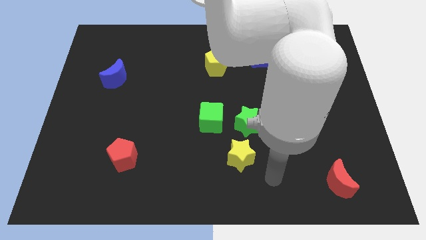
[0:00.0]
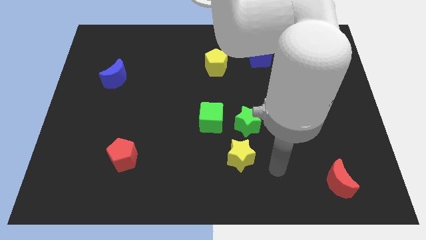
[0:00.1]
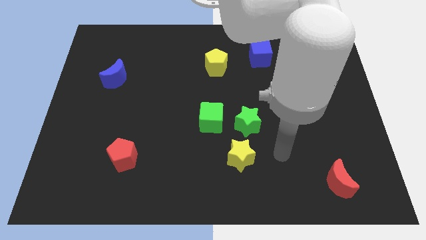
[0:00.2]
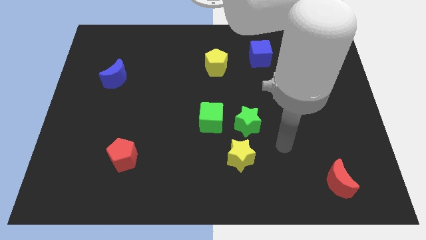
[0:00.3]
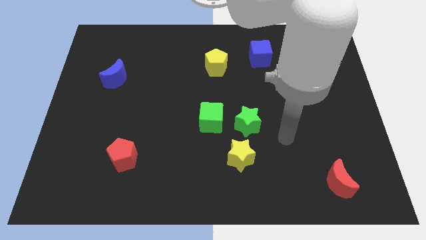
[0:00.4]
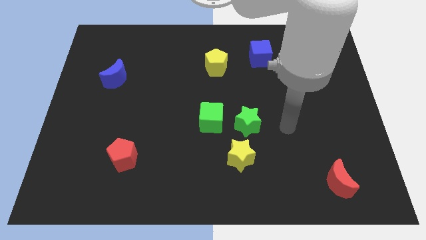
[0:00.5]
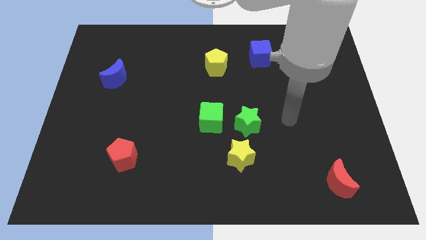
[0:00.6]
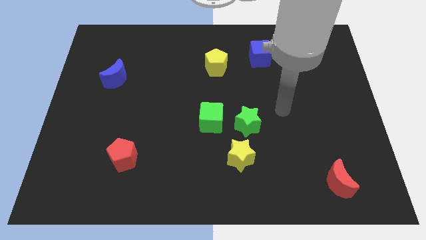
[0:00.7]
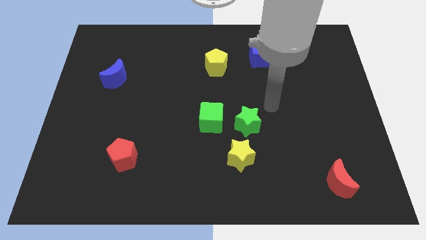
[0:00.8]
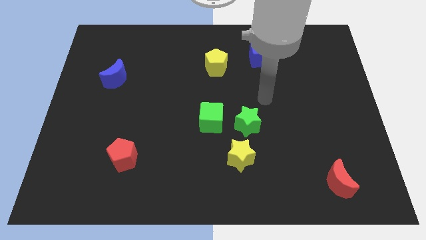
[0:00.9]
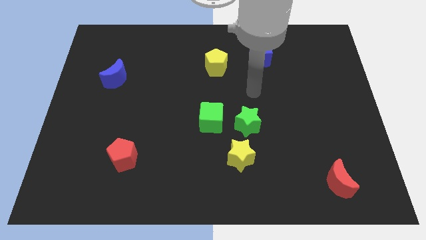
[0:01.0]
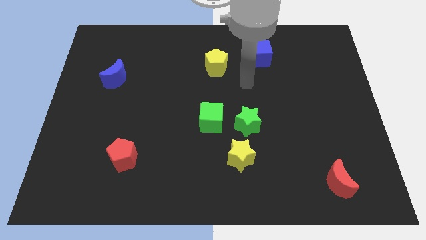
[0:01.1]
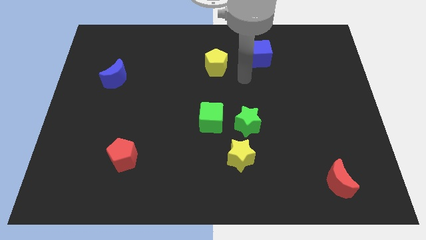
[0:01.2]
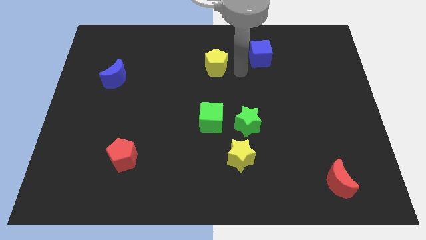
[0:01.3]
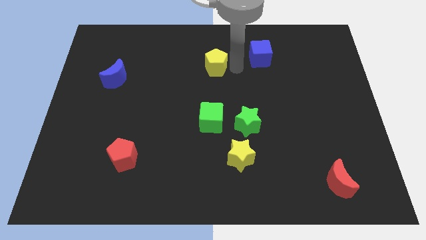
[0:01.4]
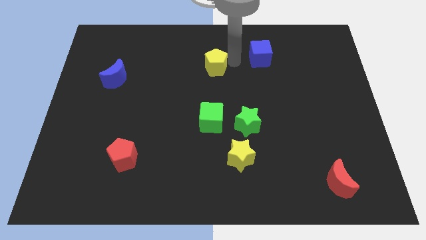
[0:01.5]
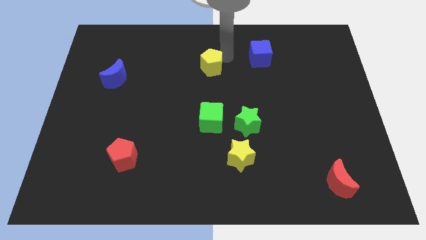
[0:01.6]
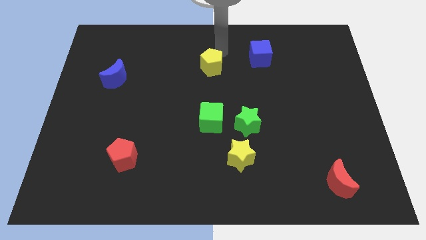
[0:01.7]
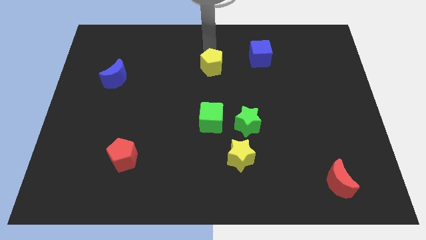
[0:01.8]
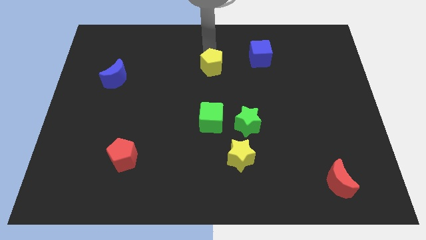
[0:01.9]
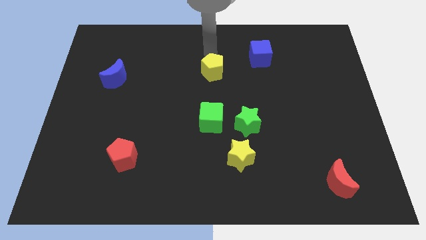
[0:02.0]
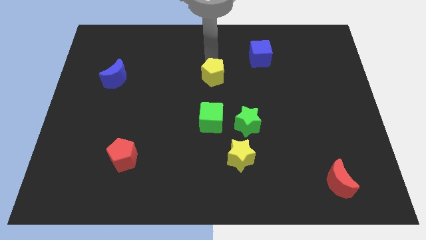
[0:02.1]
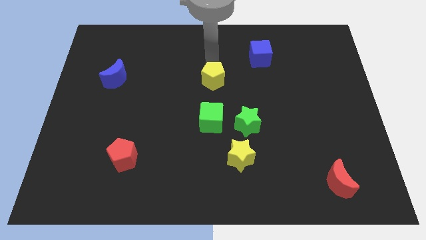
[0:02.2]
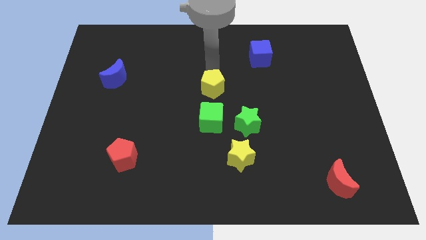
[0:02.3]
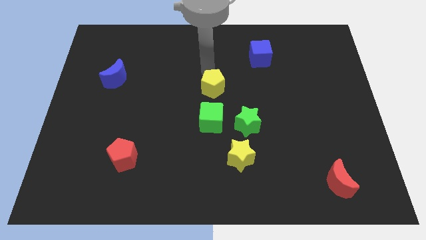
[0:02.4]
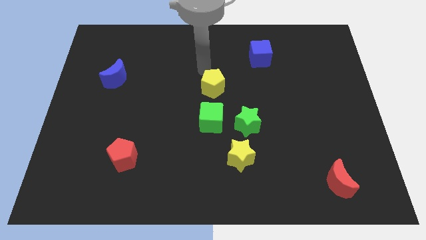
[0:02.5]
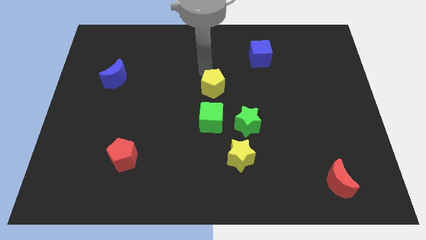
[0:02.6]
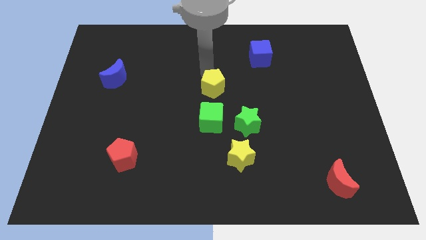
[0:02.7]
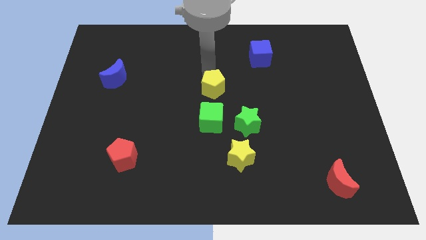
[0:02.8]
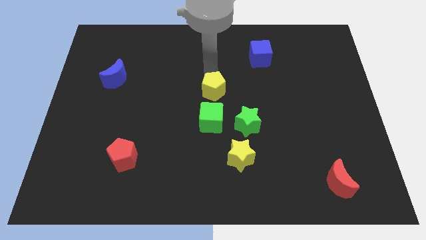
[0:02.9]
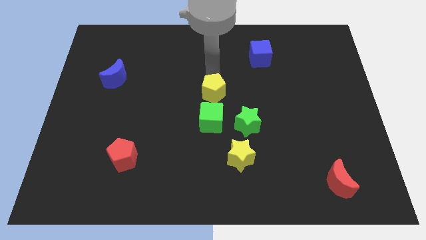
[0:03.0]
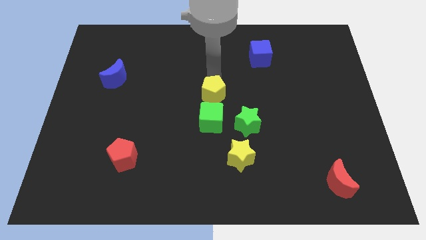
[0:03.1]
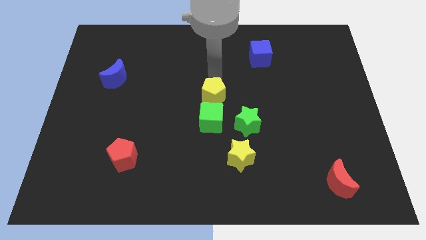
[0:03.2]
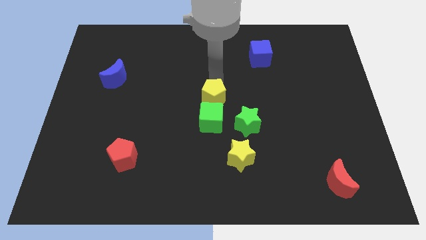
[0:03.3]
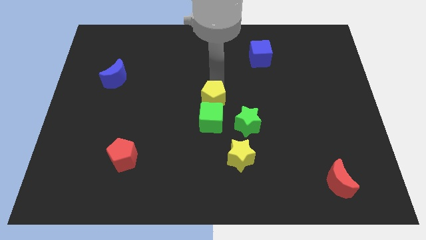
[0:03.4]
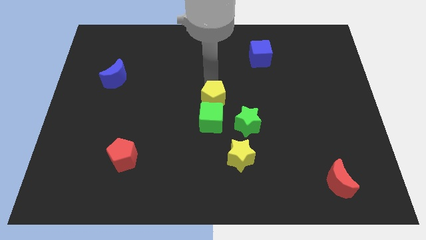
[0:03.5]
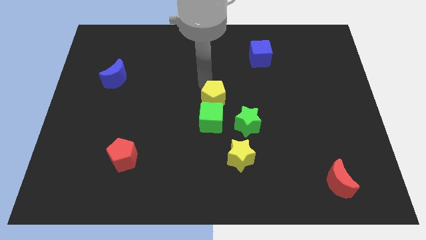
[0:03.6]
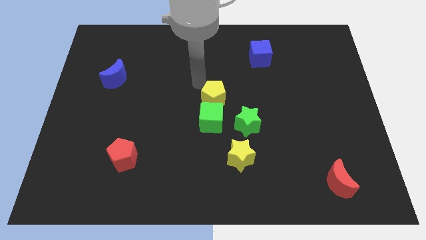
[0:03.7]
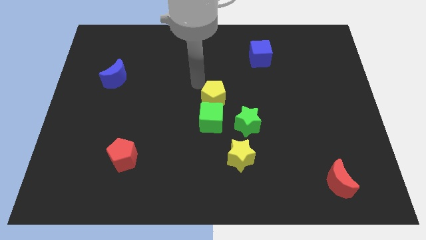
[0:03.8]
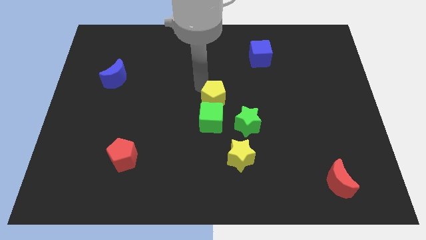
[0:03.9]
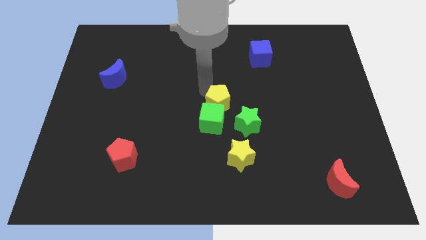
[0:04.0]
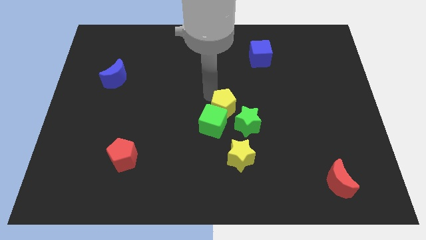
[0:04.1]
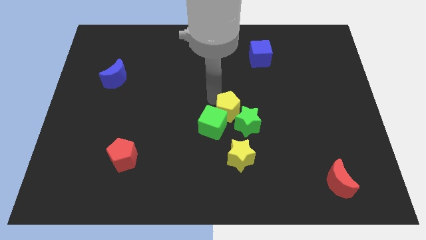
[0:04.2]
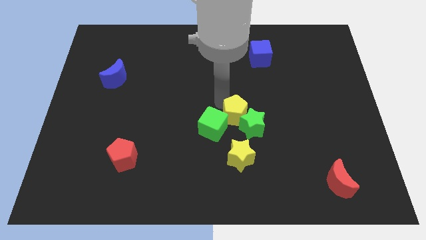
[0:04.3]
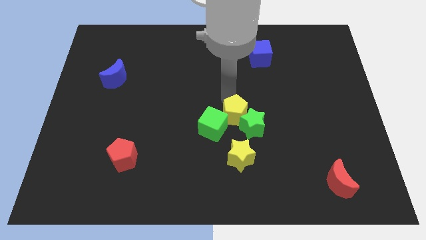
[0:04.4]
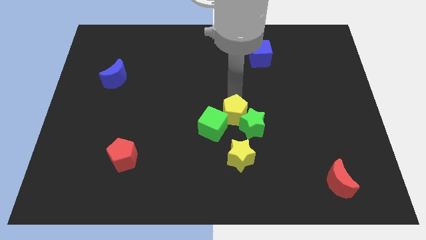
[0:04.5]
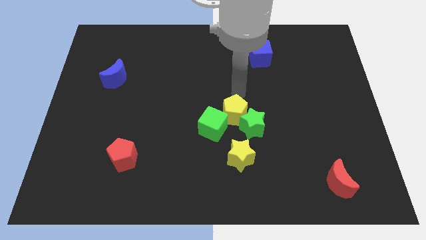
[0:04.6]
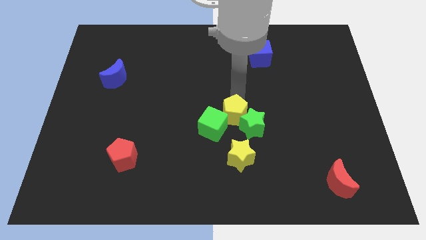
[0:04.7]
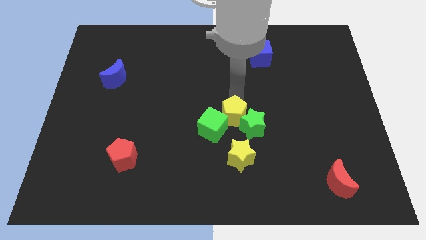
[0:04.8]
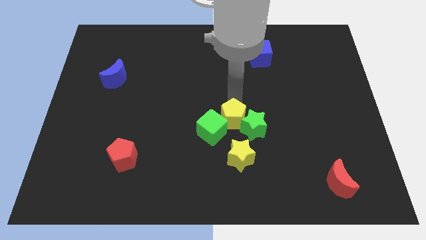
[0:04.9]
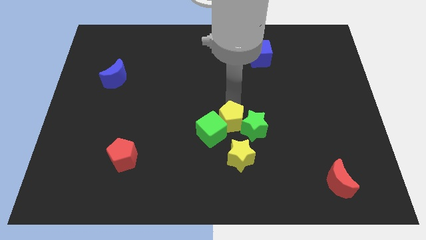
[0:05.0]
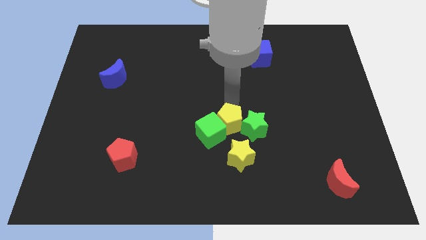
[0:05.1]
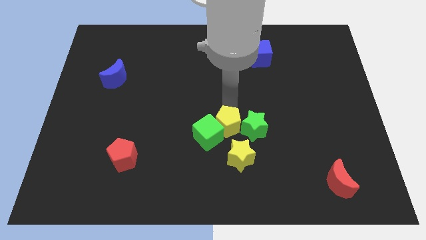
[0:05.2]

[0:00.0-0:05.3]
move the yellow pentagon diagonally down and to the left of the green star

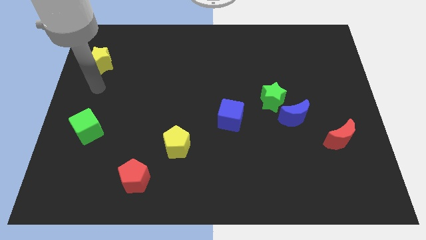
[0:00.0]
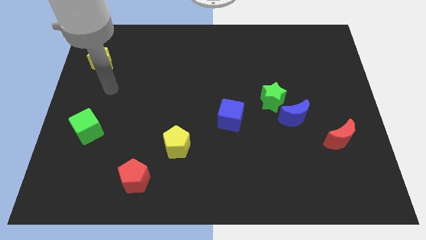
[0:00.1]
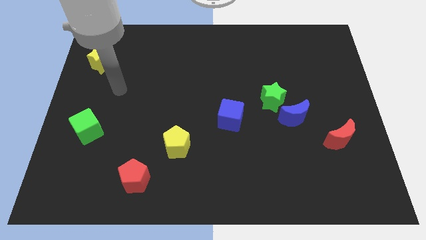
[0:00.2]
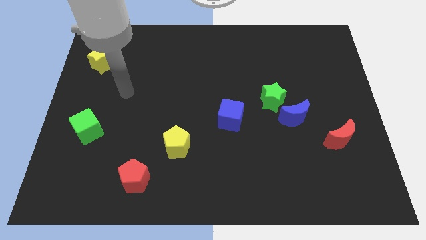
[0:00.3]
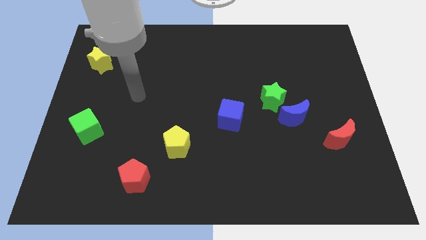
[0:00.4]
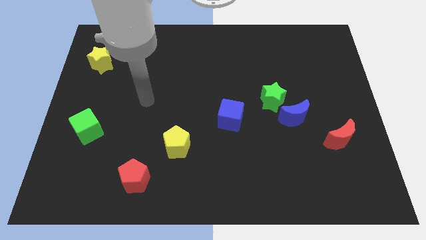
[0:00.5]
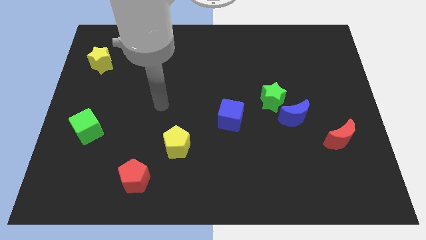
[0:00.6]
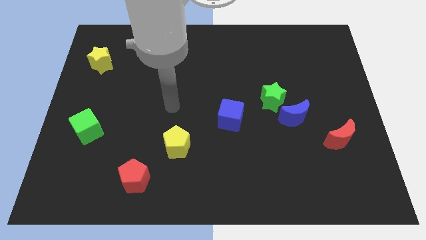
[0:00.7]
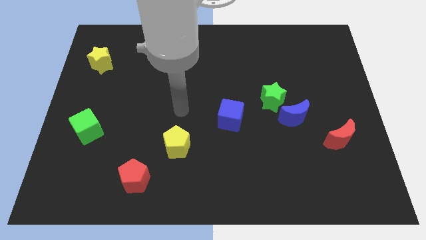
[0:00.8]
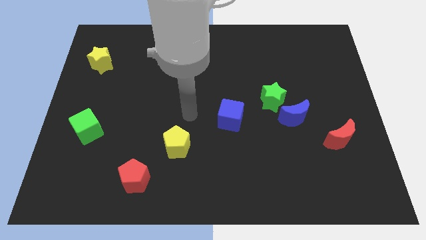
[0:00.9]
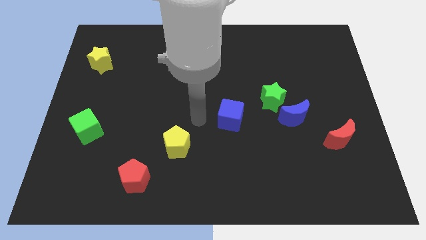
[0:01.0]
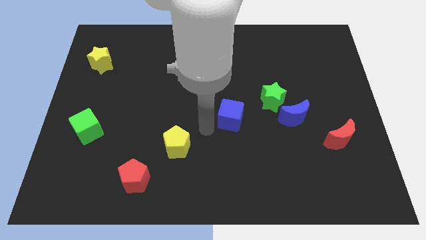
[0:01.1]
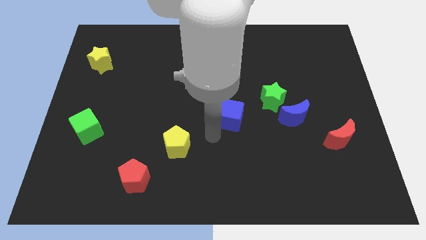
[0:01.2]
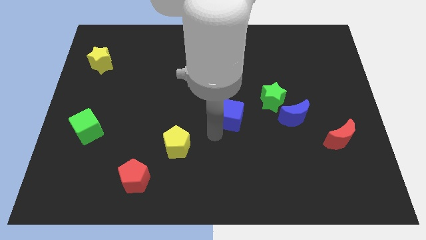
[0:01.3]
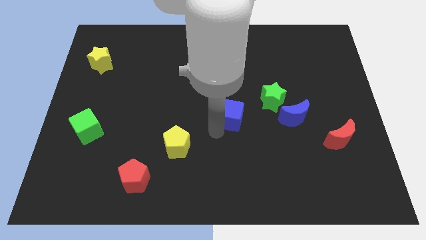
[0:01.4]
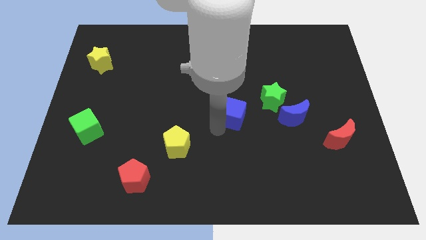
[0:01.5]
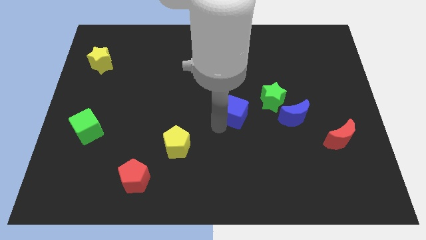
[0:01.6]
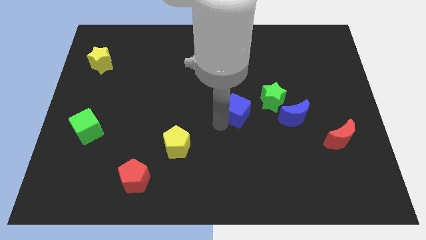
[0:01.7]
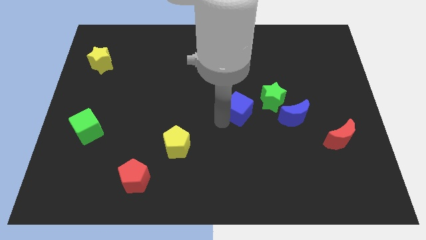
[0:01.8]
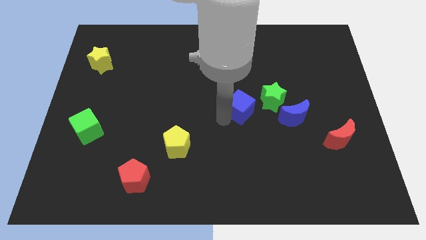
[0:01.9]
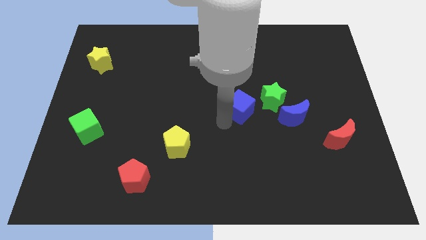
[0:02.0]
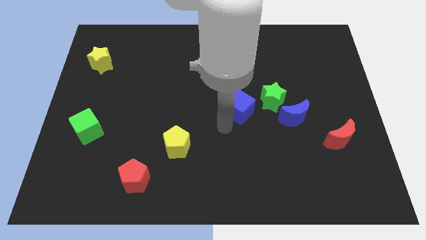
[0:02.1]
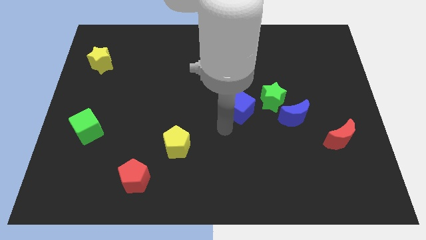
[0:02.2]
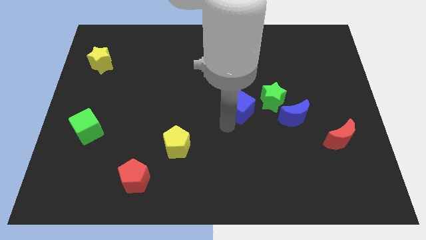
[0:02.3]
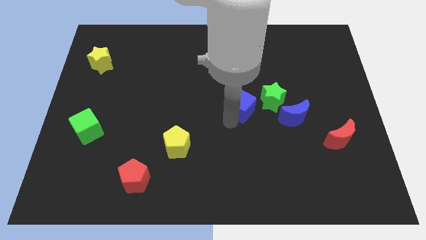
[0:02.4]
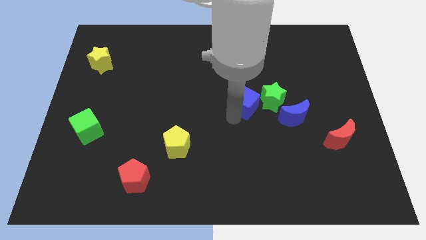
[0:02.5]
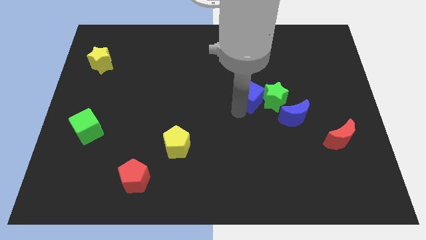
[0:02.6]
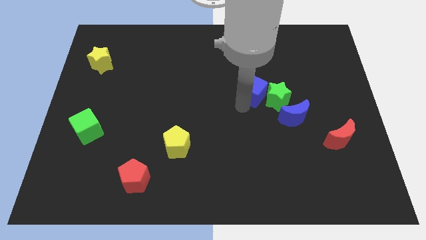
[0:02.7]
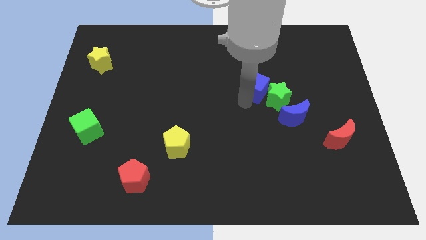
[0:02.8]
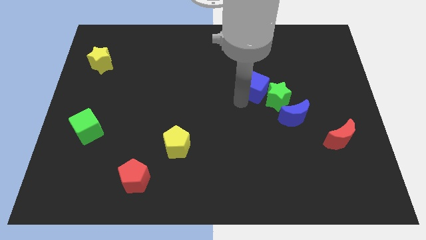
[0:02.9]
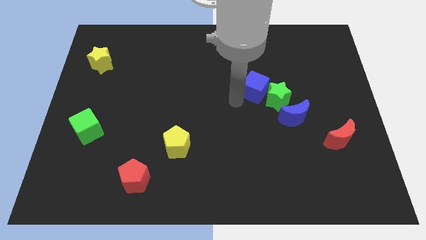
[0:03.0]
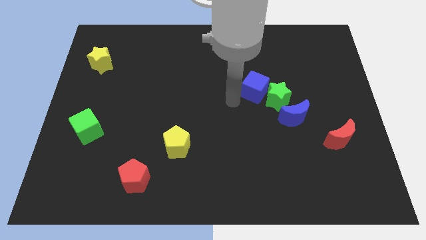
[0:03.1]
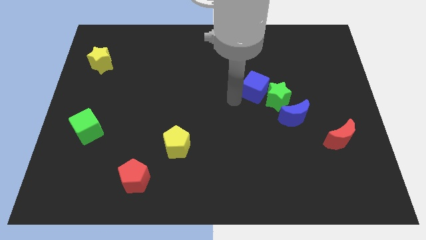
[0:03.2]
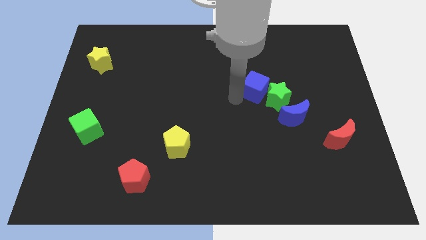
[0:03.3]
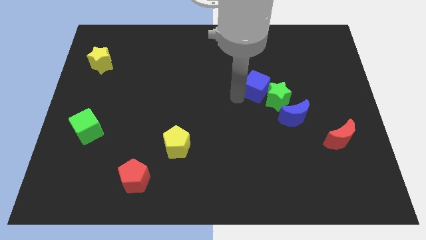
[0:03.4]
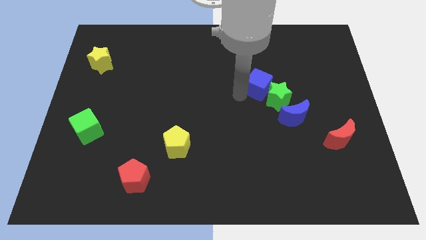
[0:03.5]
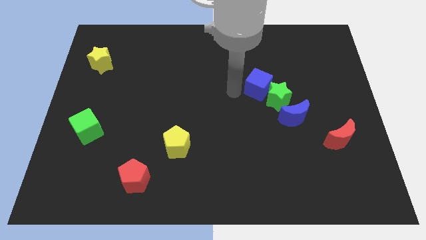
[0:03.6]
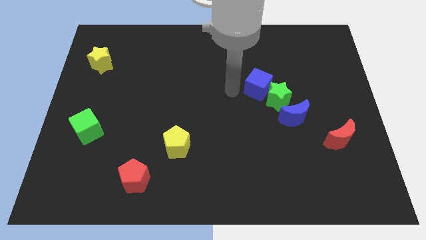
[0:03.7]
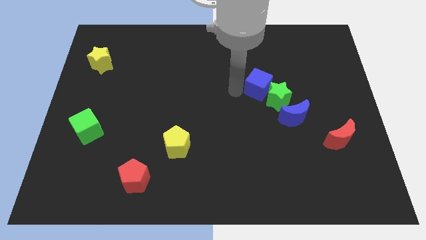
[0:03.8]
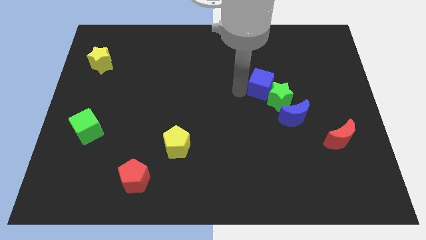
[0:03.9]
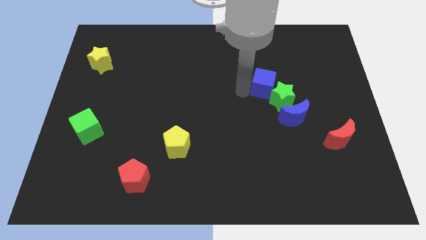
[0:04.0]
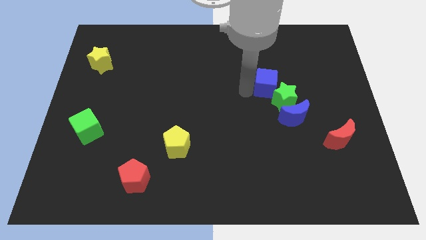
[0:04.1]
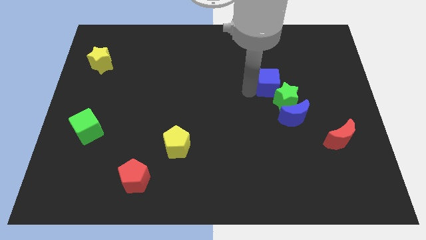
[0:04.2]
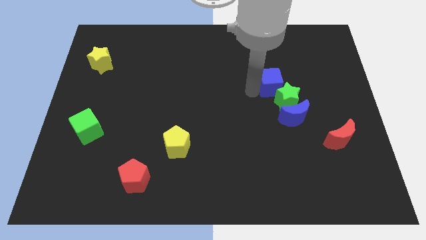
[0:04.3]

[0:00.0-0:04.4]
push the blue cube to the top of the blue moon
